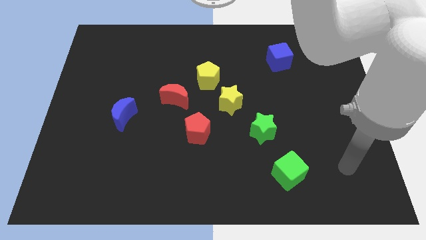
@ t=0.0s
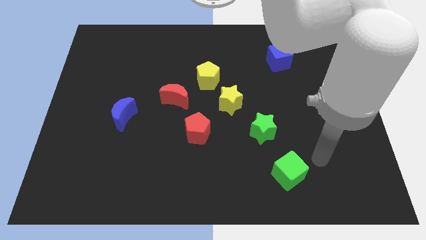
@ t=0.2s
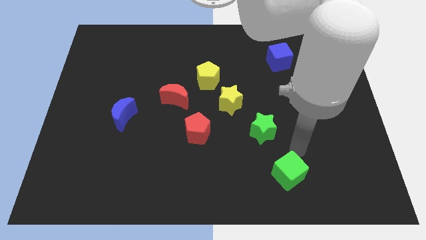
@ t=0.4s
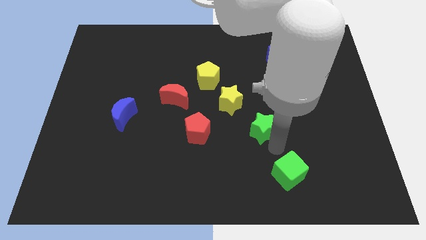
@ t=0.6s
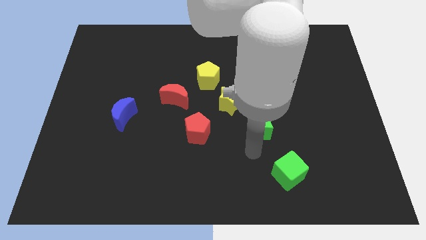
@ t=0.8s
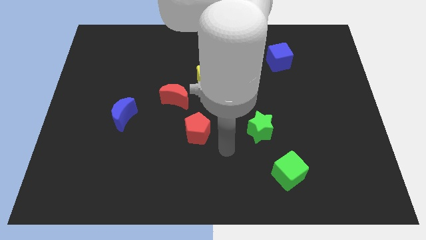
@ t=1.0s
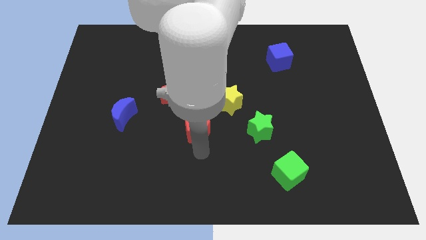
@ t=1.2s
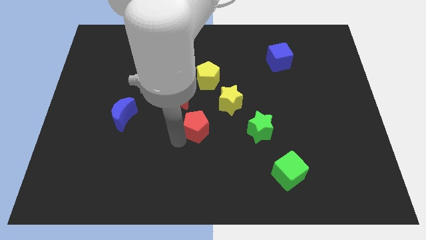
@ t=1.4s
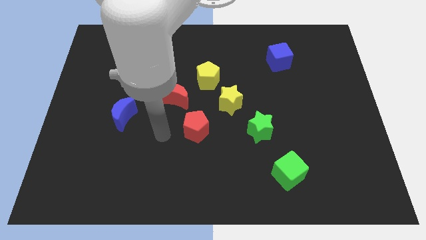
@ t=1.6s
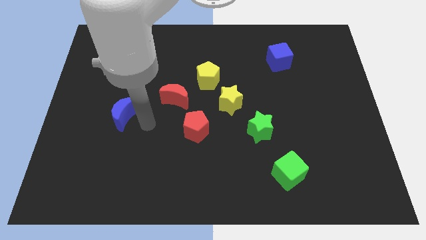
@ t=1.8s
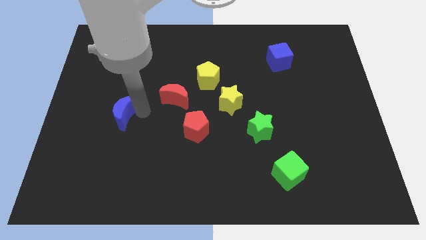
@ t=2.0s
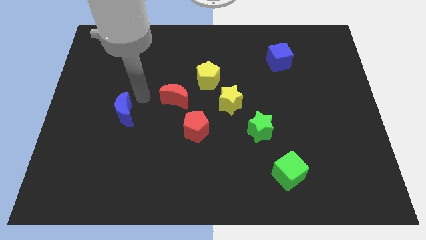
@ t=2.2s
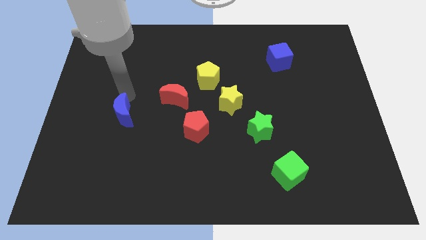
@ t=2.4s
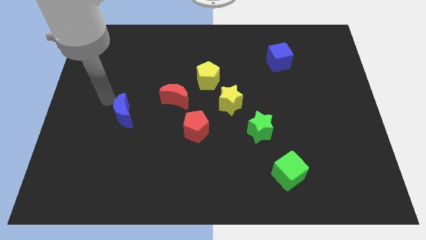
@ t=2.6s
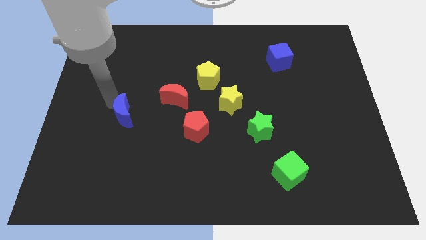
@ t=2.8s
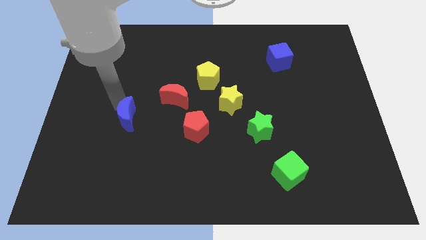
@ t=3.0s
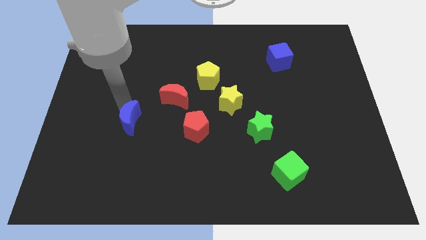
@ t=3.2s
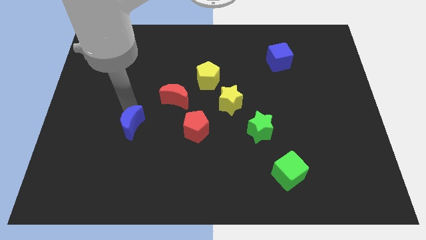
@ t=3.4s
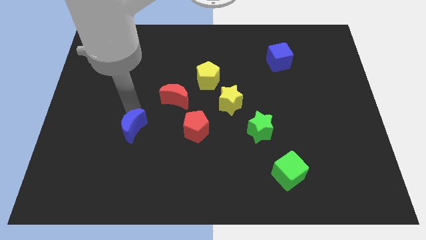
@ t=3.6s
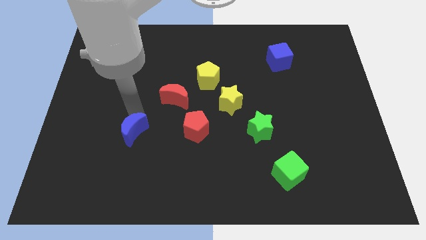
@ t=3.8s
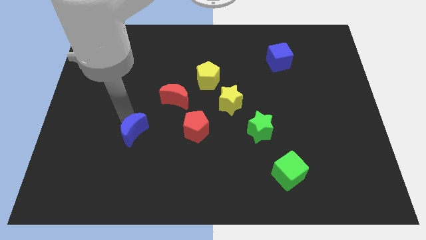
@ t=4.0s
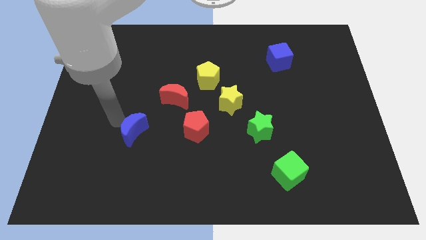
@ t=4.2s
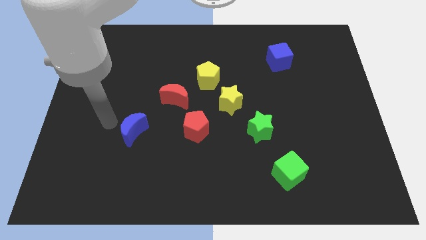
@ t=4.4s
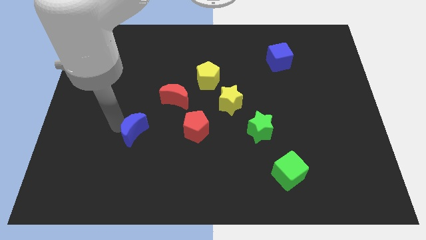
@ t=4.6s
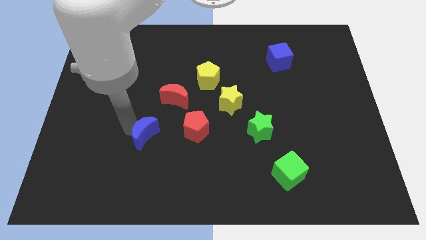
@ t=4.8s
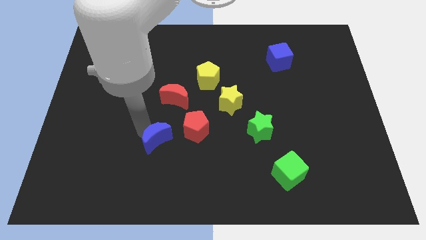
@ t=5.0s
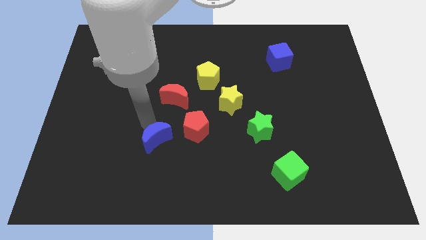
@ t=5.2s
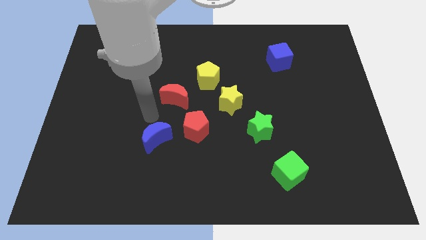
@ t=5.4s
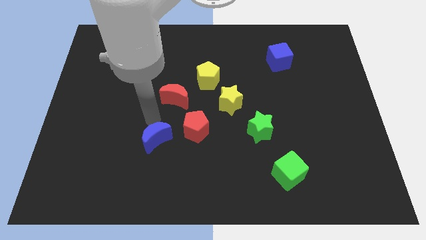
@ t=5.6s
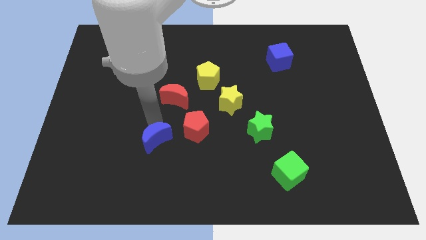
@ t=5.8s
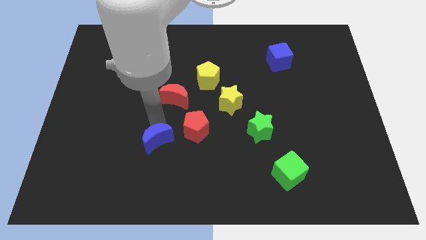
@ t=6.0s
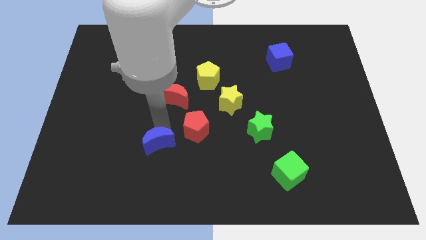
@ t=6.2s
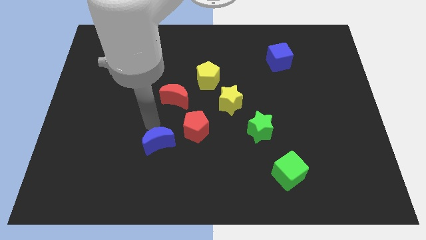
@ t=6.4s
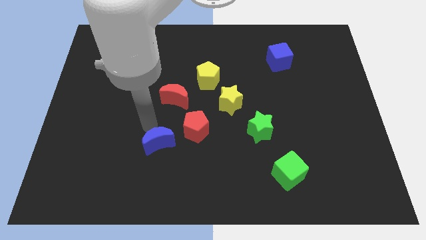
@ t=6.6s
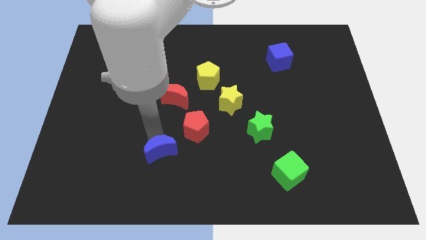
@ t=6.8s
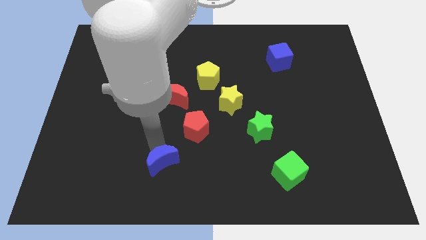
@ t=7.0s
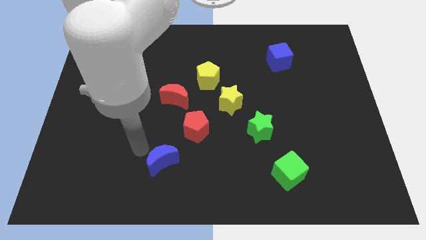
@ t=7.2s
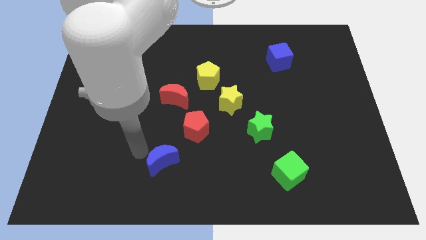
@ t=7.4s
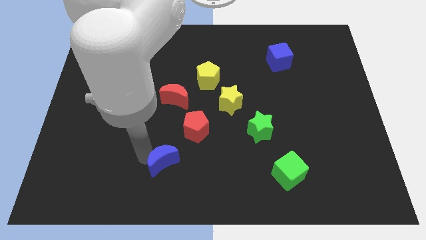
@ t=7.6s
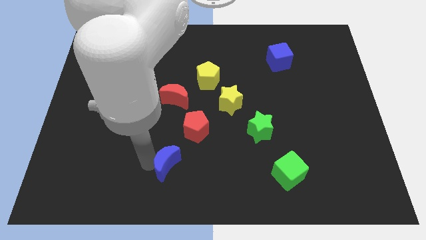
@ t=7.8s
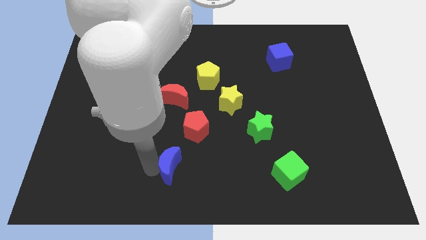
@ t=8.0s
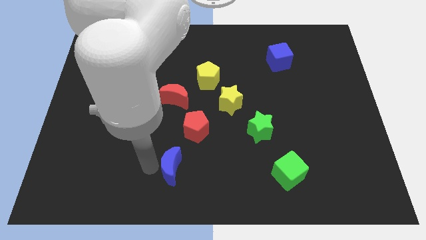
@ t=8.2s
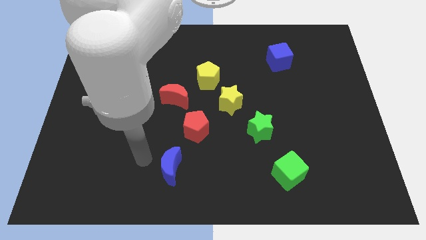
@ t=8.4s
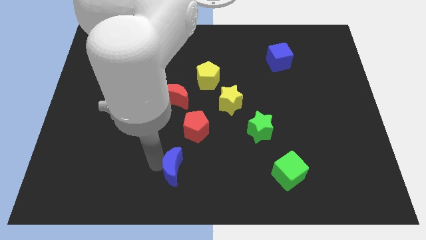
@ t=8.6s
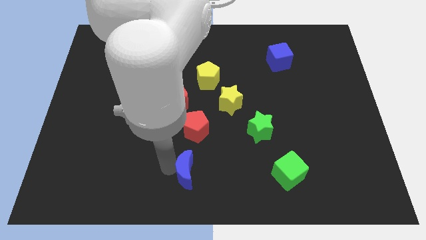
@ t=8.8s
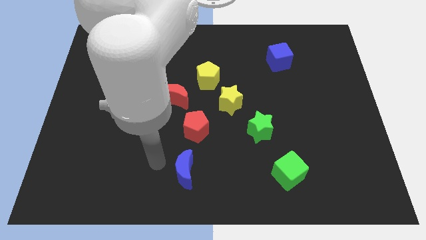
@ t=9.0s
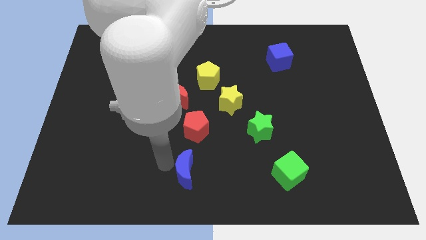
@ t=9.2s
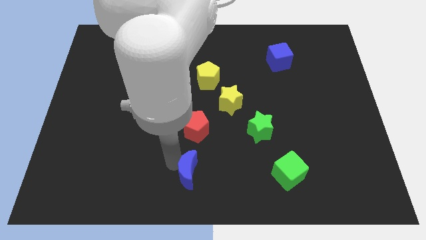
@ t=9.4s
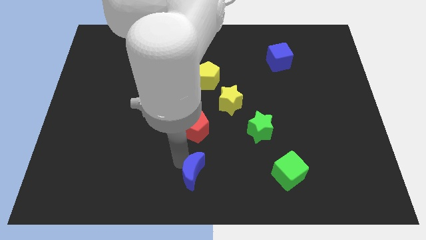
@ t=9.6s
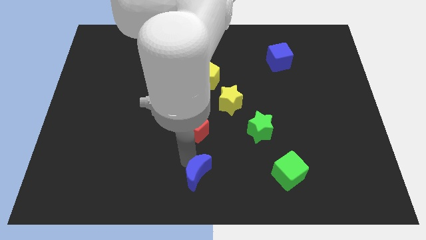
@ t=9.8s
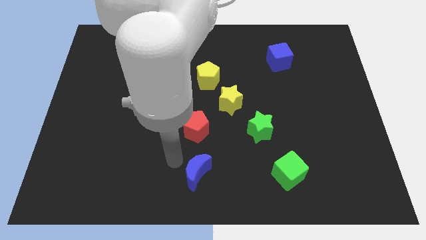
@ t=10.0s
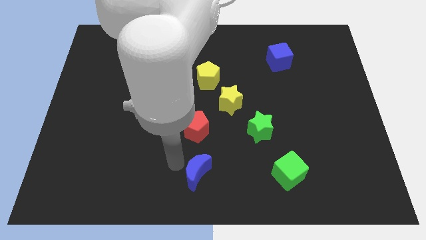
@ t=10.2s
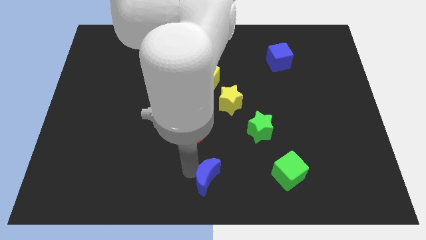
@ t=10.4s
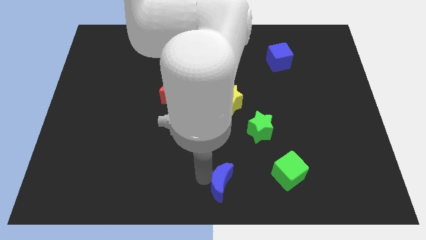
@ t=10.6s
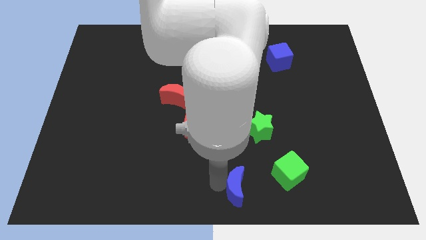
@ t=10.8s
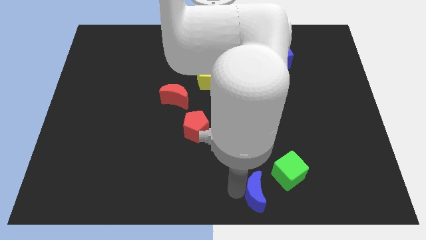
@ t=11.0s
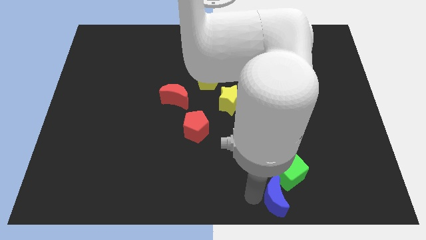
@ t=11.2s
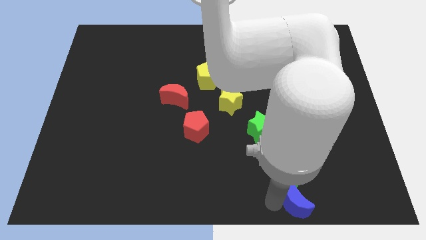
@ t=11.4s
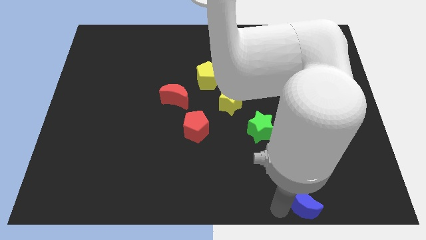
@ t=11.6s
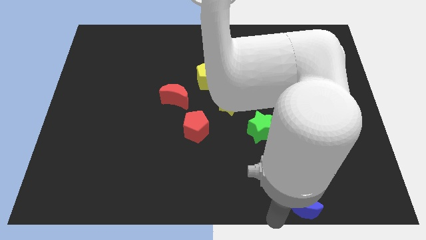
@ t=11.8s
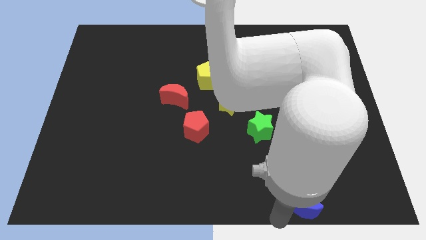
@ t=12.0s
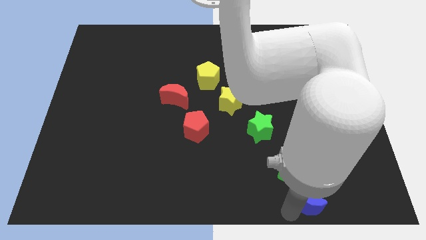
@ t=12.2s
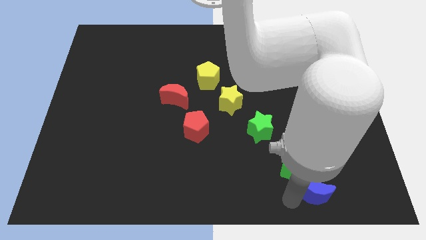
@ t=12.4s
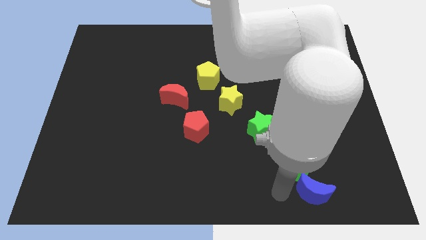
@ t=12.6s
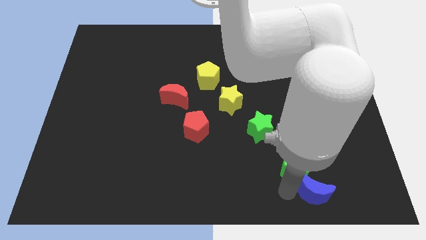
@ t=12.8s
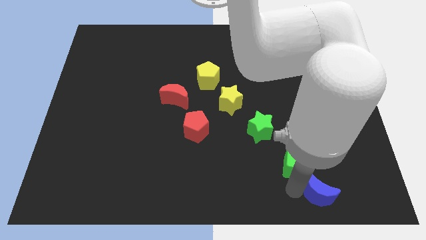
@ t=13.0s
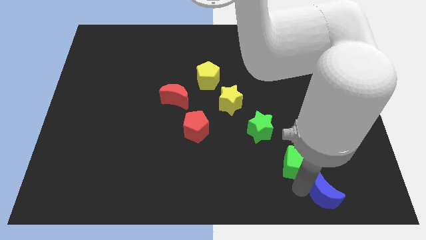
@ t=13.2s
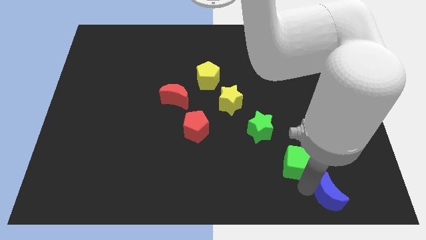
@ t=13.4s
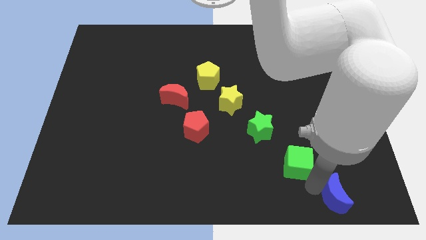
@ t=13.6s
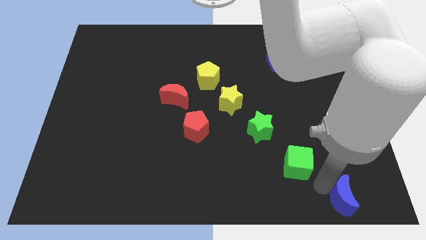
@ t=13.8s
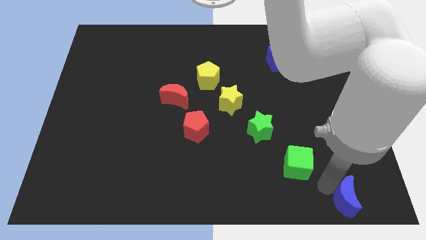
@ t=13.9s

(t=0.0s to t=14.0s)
put the blue moon to the bottom right corner
